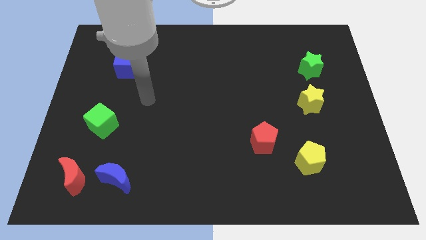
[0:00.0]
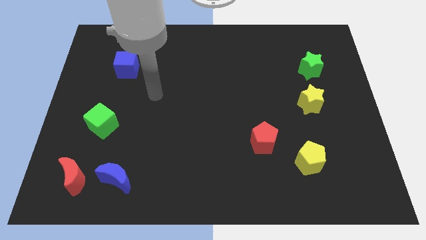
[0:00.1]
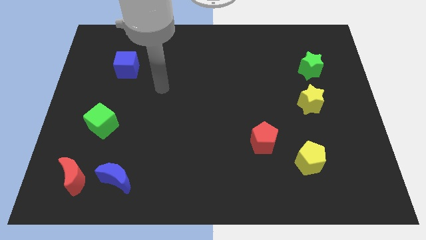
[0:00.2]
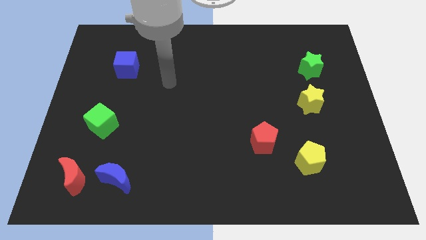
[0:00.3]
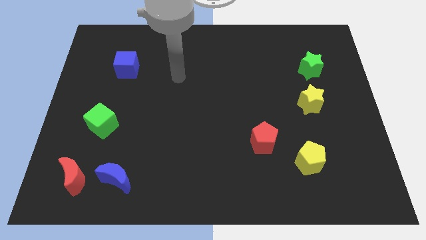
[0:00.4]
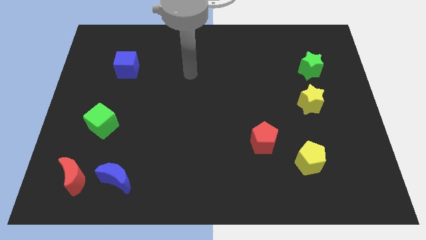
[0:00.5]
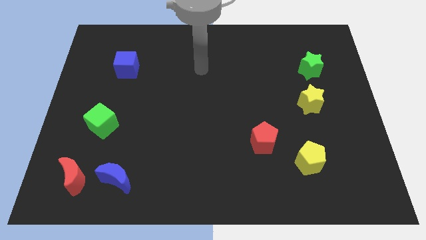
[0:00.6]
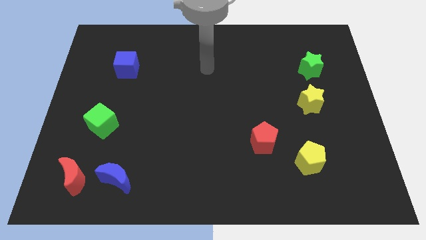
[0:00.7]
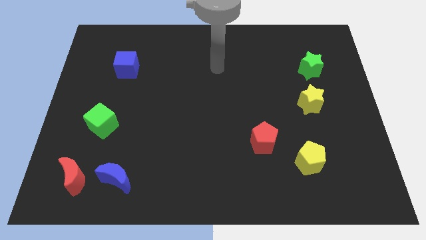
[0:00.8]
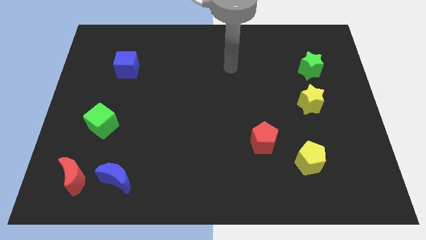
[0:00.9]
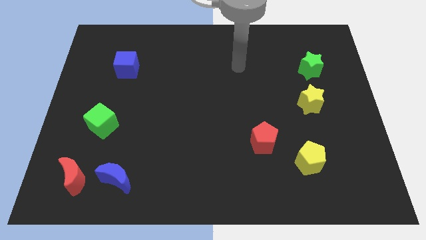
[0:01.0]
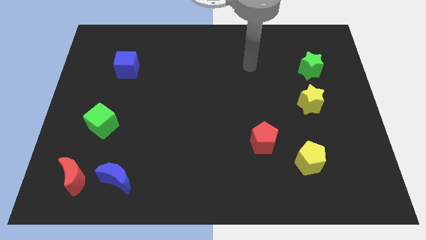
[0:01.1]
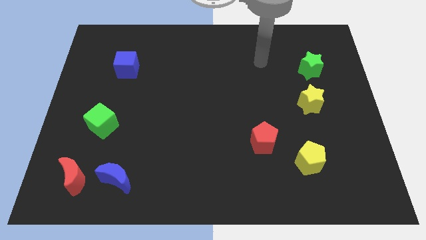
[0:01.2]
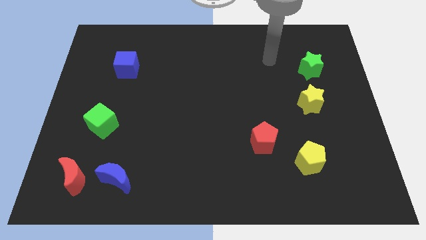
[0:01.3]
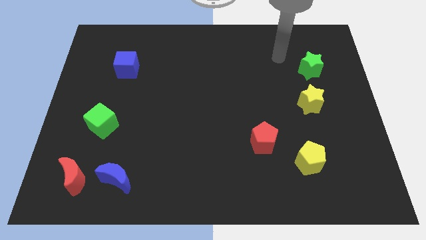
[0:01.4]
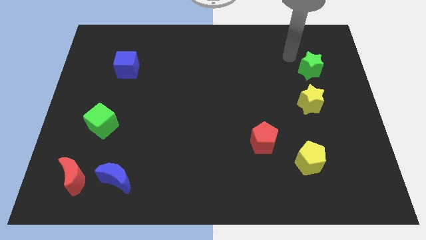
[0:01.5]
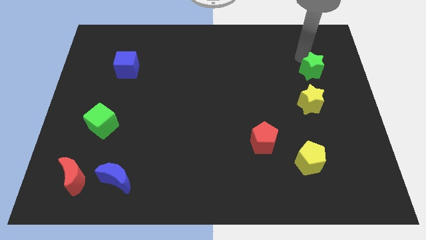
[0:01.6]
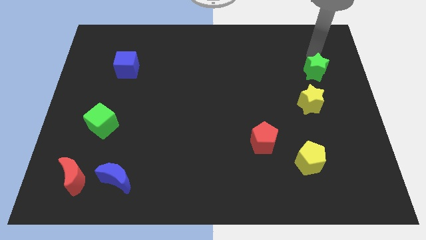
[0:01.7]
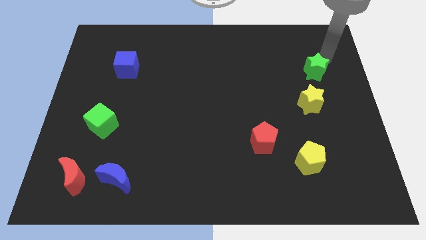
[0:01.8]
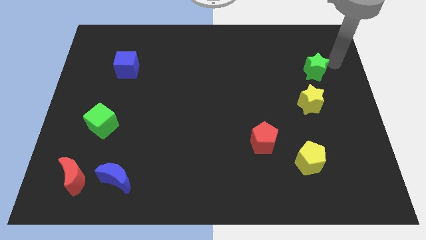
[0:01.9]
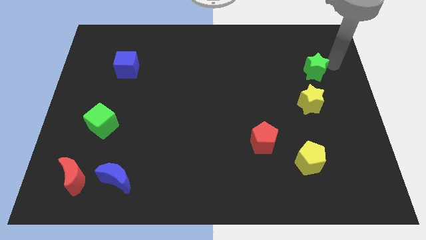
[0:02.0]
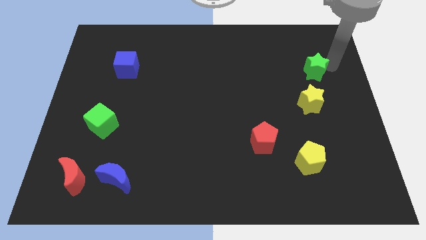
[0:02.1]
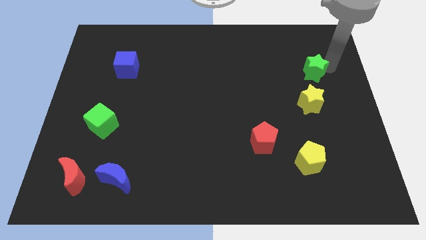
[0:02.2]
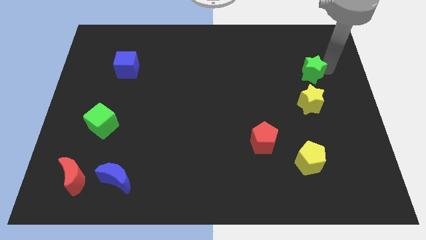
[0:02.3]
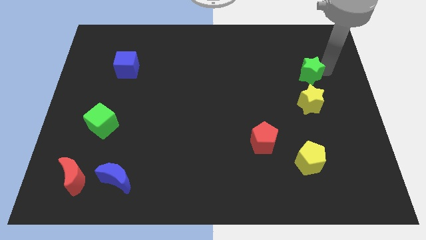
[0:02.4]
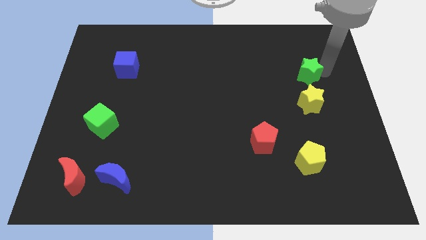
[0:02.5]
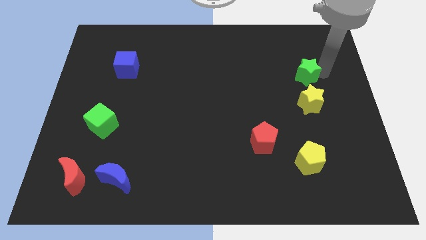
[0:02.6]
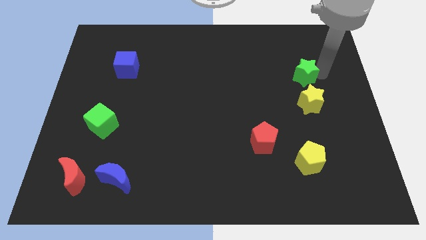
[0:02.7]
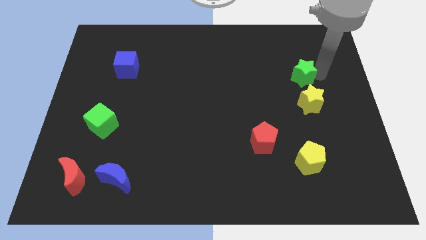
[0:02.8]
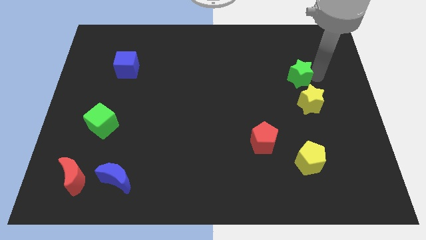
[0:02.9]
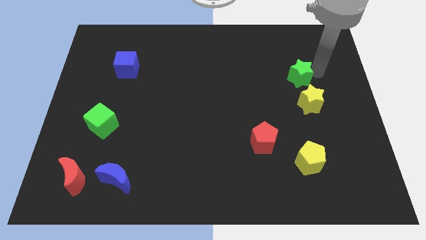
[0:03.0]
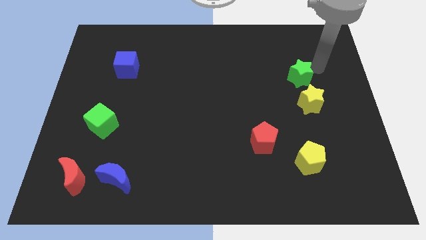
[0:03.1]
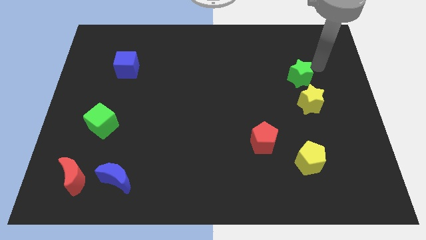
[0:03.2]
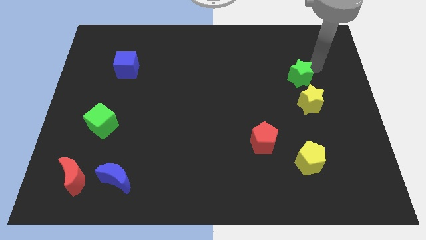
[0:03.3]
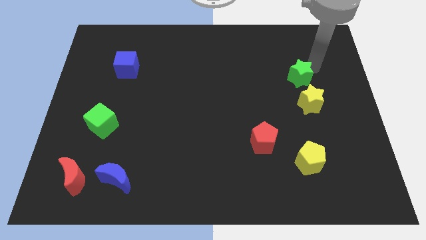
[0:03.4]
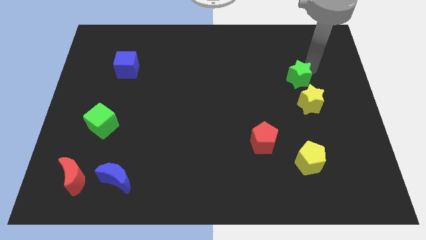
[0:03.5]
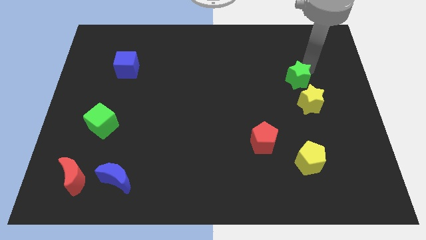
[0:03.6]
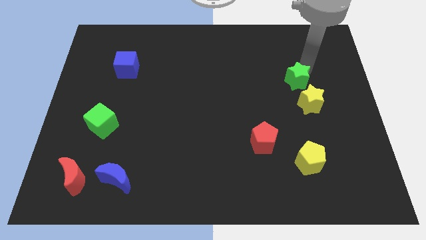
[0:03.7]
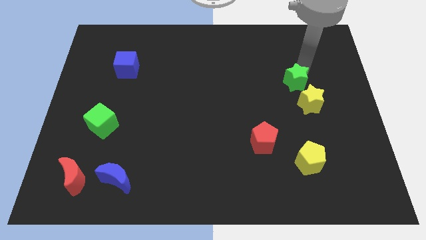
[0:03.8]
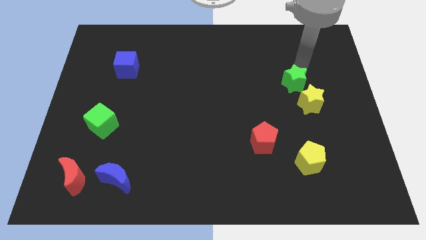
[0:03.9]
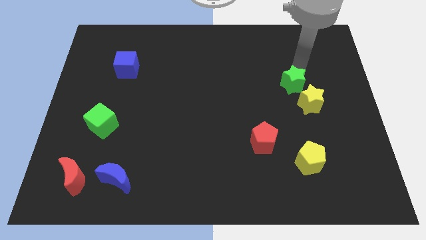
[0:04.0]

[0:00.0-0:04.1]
push the green star downwards and left diagonally a bit

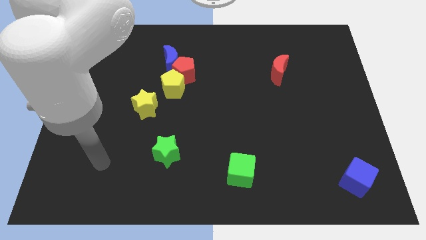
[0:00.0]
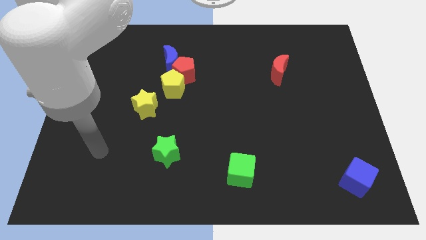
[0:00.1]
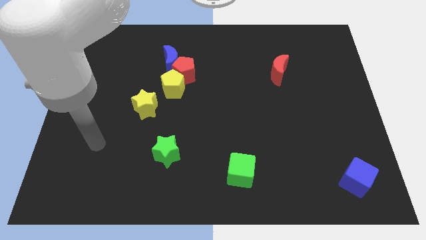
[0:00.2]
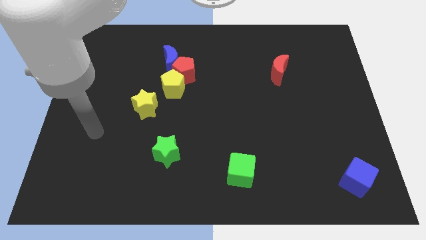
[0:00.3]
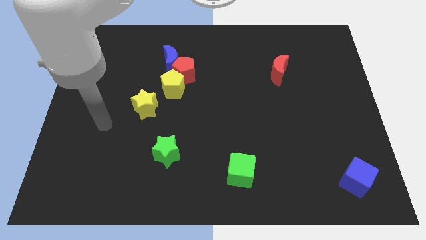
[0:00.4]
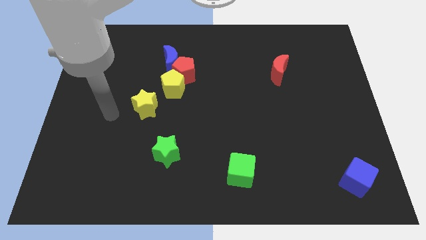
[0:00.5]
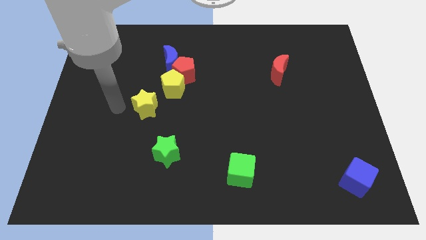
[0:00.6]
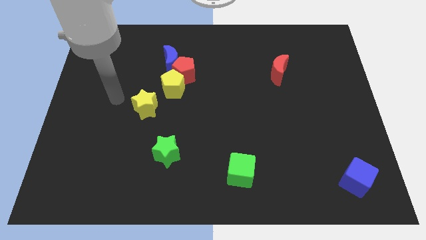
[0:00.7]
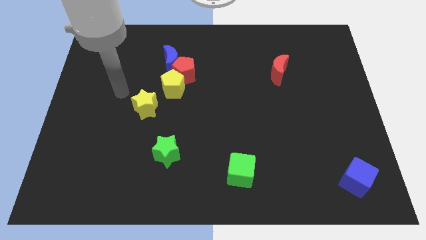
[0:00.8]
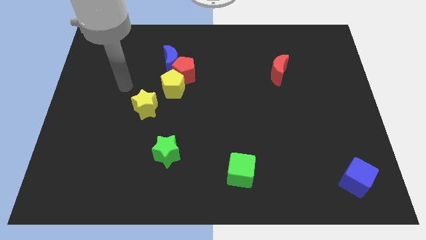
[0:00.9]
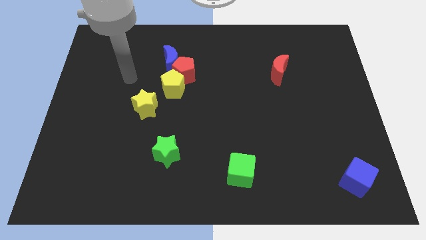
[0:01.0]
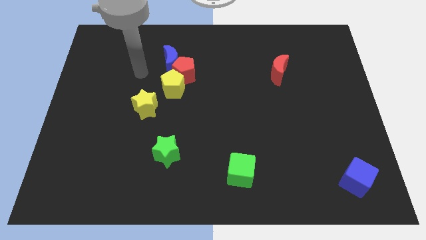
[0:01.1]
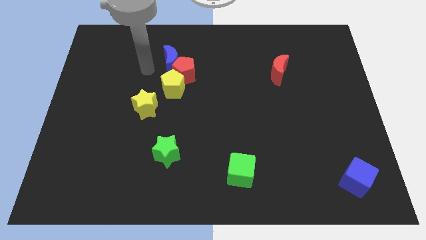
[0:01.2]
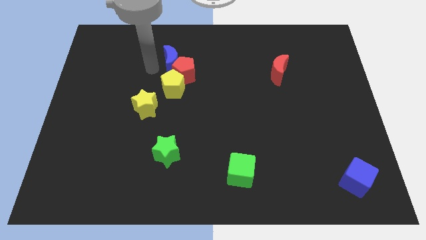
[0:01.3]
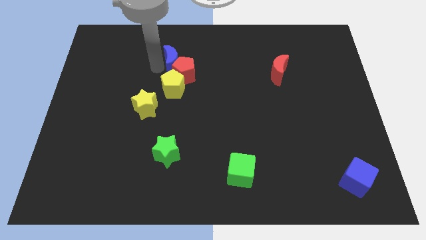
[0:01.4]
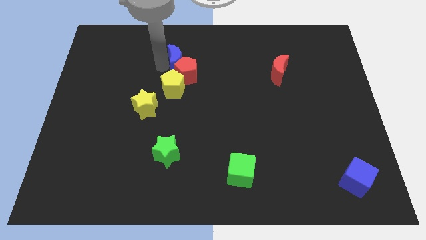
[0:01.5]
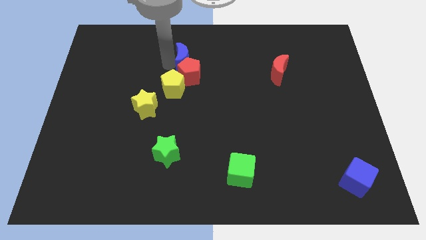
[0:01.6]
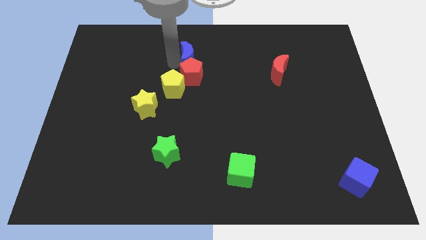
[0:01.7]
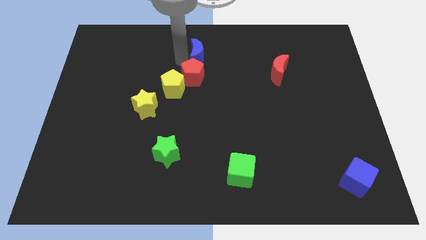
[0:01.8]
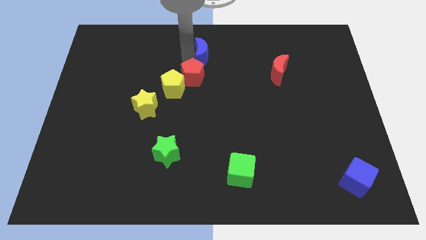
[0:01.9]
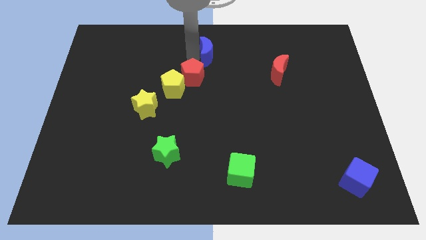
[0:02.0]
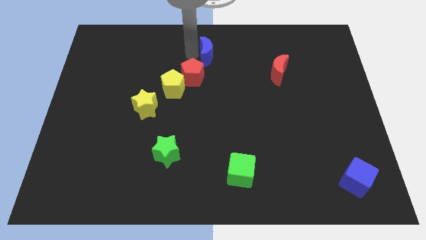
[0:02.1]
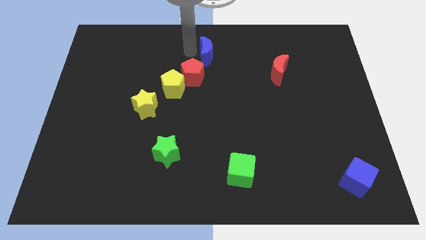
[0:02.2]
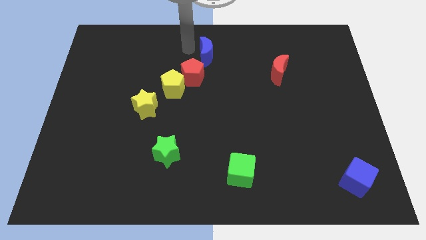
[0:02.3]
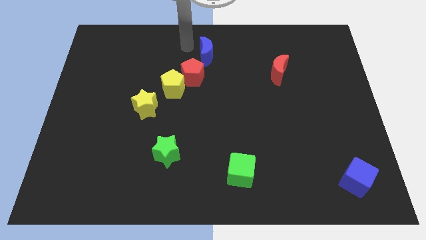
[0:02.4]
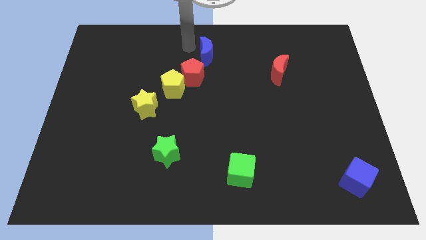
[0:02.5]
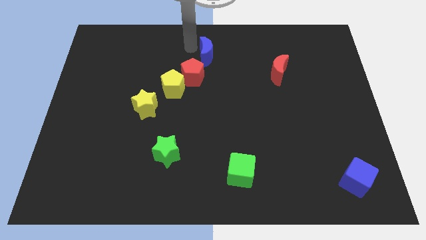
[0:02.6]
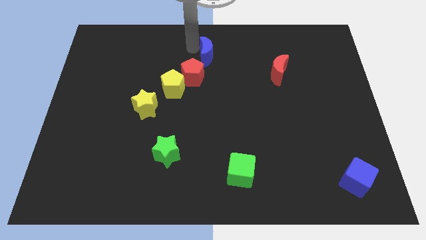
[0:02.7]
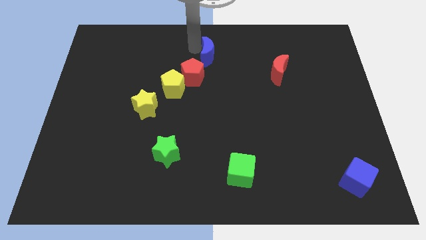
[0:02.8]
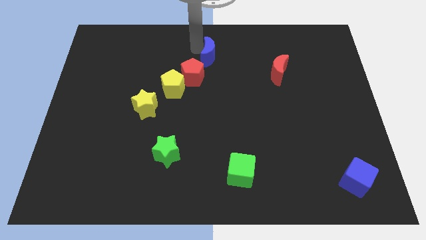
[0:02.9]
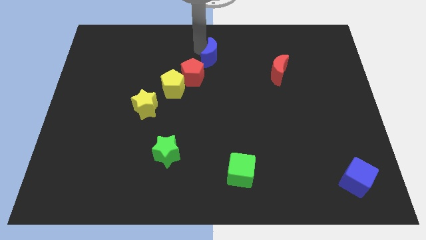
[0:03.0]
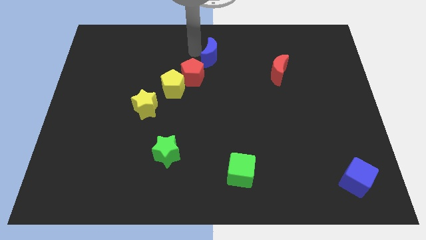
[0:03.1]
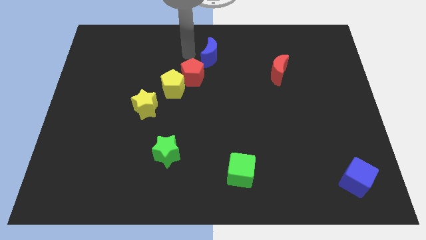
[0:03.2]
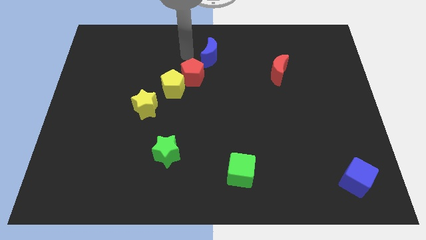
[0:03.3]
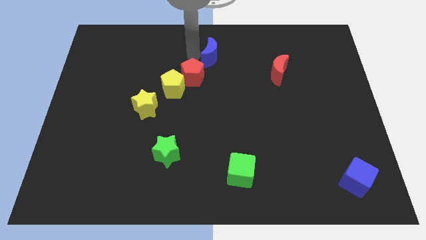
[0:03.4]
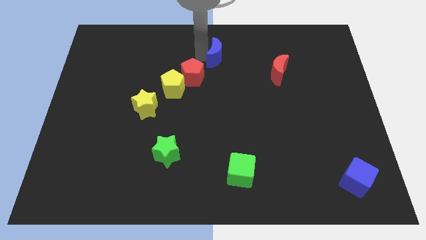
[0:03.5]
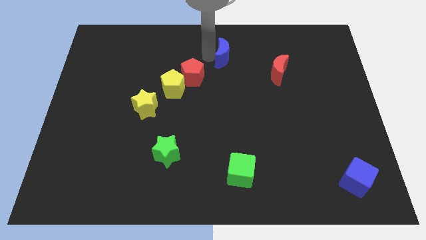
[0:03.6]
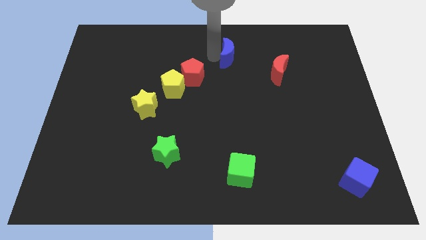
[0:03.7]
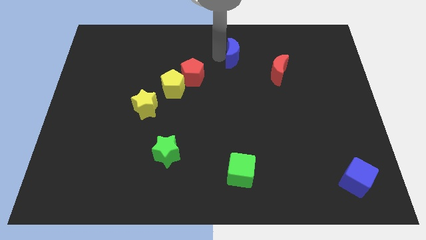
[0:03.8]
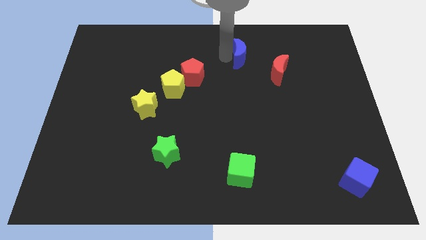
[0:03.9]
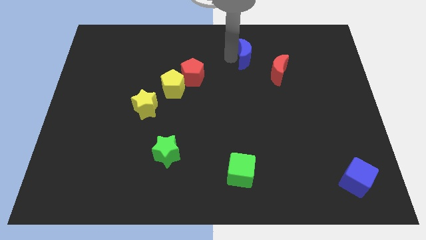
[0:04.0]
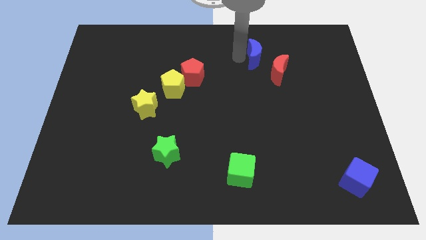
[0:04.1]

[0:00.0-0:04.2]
slide the blue moon to the right
